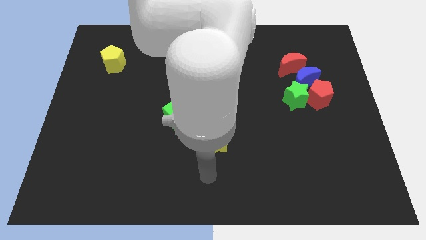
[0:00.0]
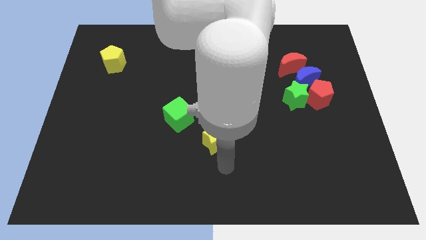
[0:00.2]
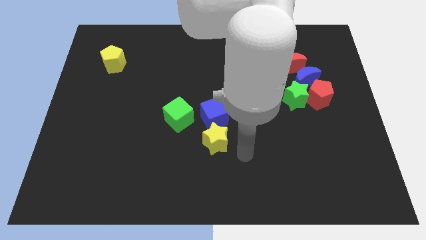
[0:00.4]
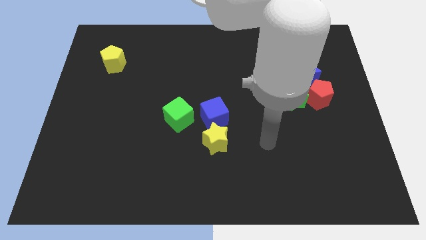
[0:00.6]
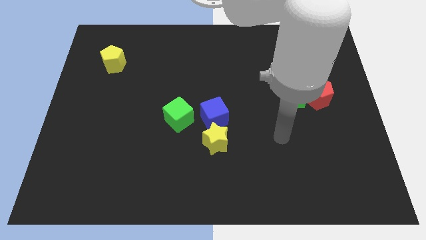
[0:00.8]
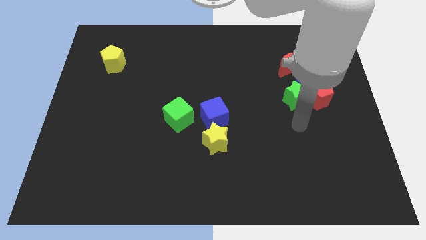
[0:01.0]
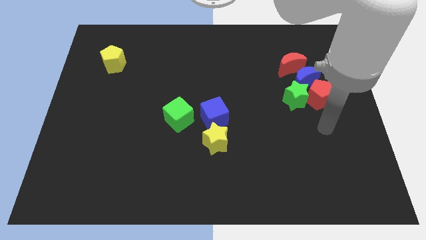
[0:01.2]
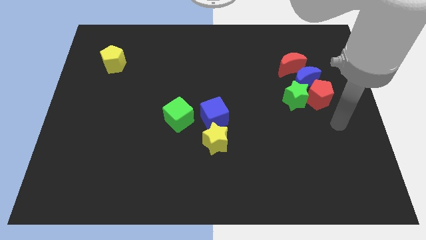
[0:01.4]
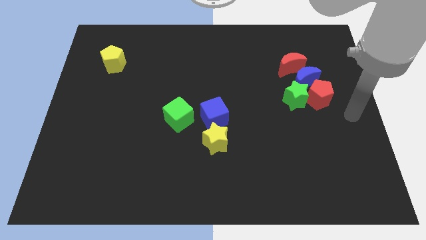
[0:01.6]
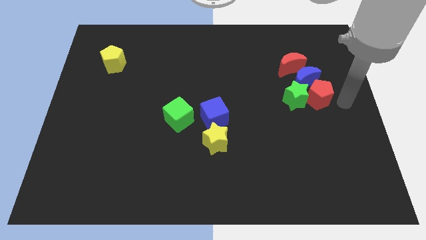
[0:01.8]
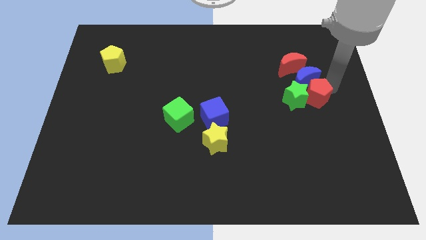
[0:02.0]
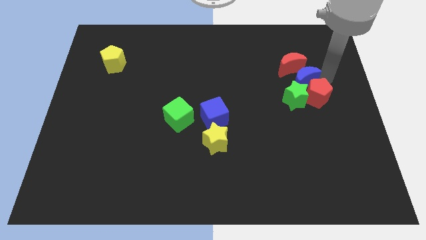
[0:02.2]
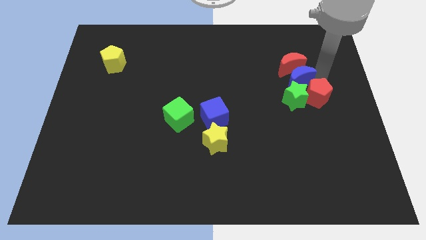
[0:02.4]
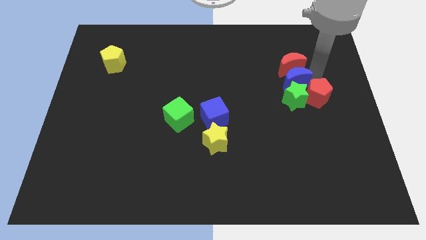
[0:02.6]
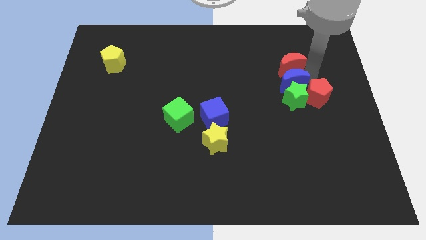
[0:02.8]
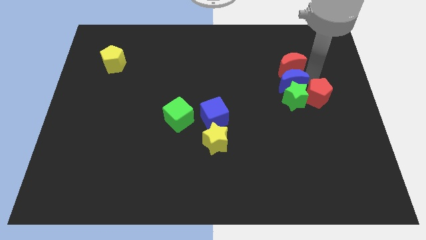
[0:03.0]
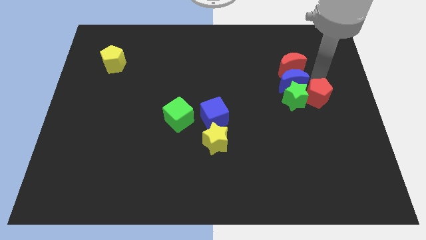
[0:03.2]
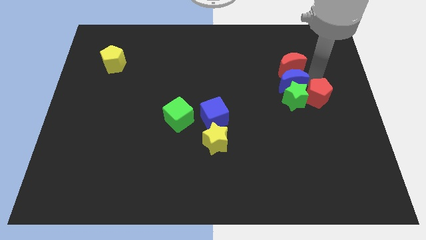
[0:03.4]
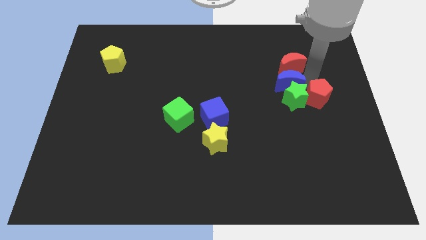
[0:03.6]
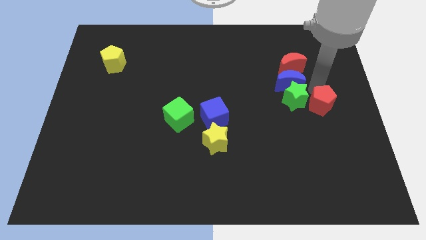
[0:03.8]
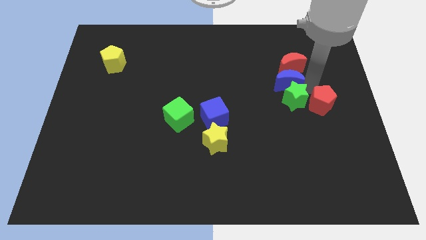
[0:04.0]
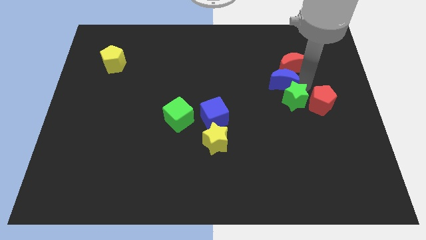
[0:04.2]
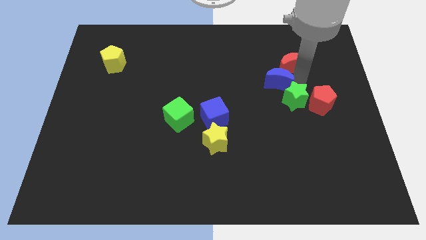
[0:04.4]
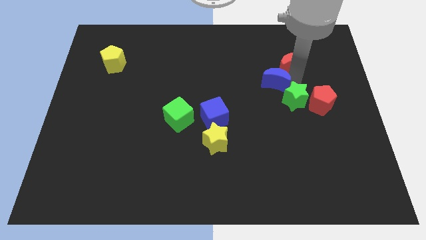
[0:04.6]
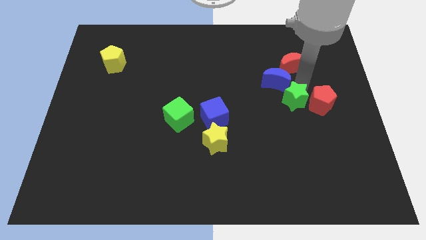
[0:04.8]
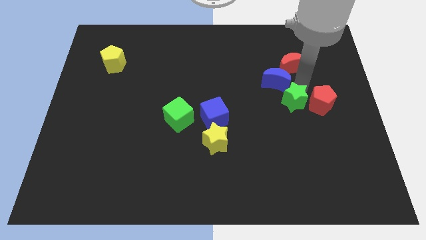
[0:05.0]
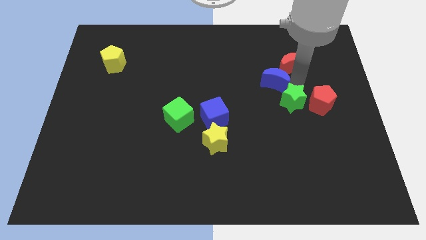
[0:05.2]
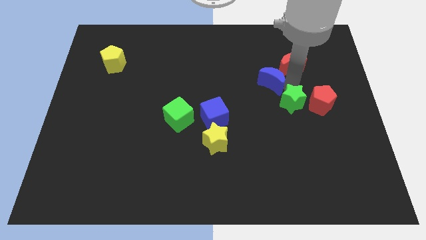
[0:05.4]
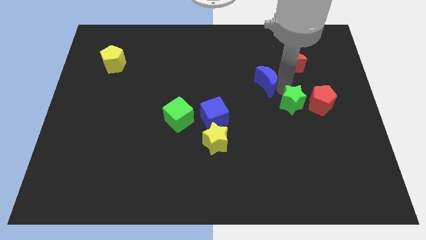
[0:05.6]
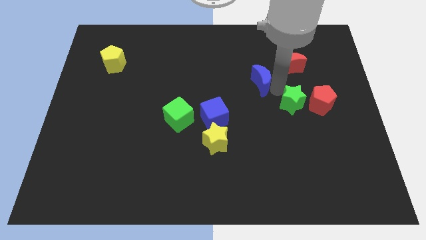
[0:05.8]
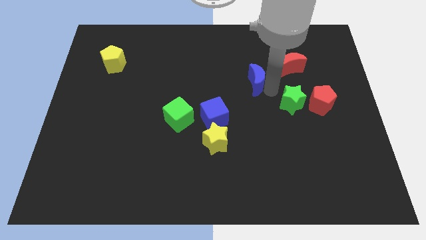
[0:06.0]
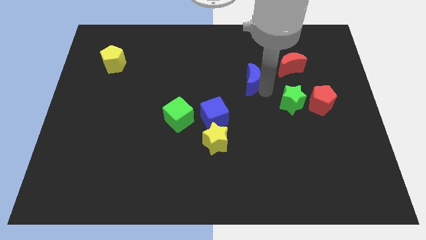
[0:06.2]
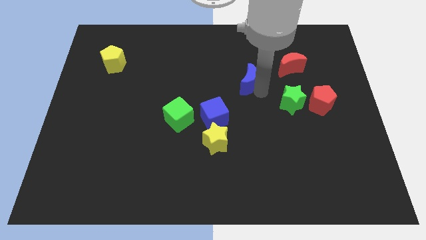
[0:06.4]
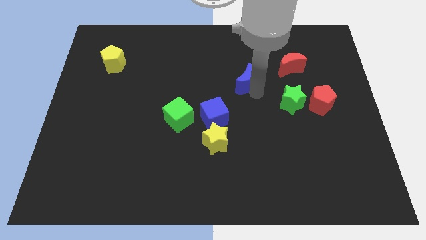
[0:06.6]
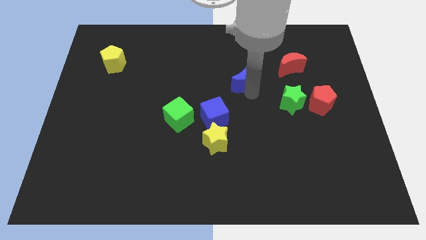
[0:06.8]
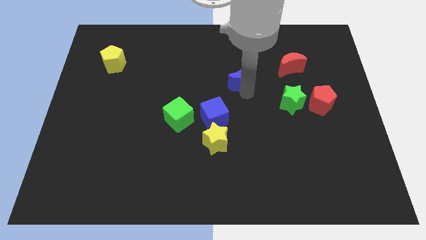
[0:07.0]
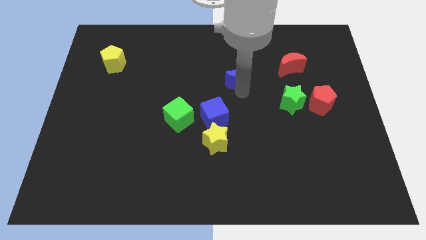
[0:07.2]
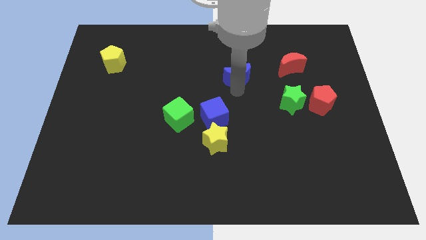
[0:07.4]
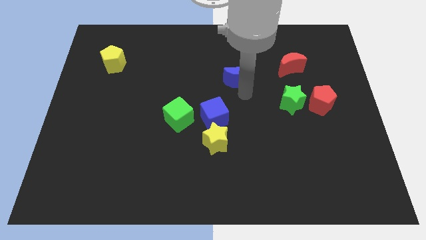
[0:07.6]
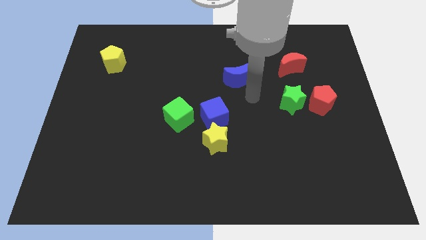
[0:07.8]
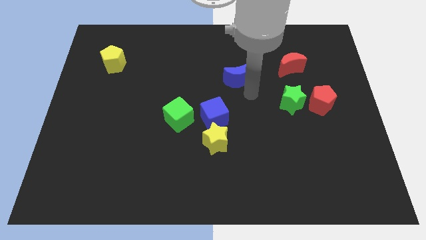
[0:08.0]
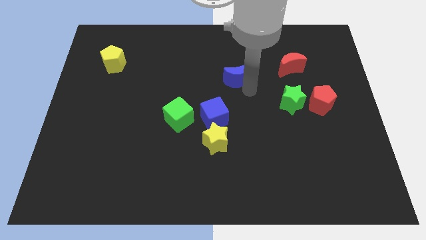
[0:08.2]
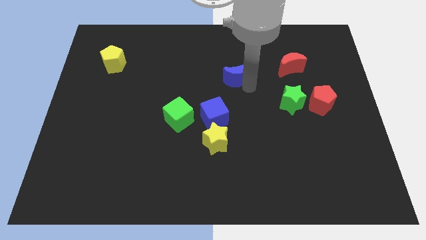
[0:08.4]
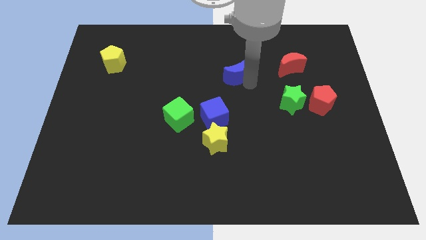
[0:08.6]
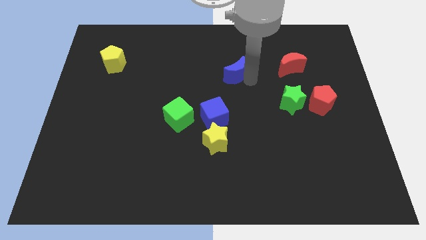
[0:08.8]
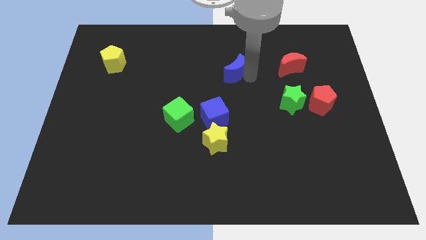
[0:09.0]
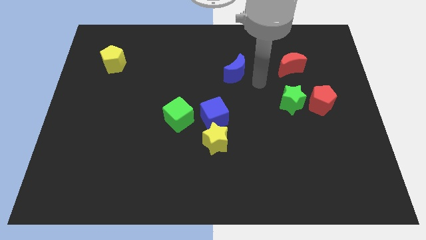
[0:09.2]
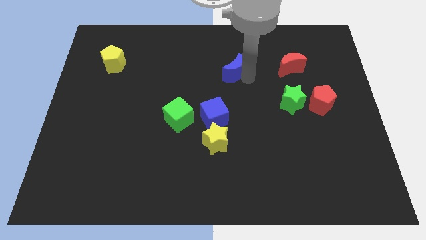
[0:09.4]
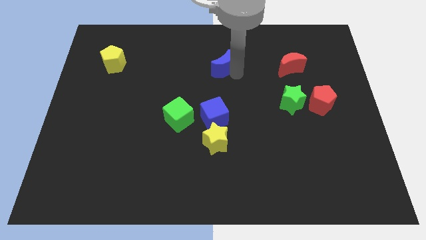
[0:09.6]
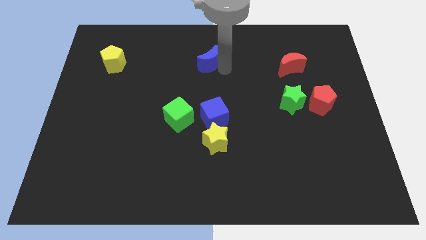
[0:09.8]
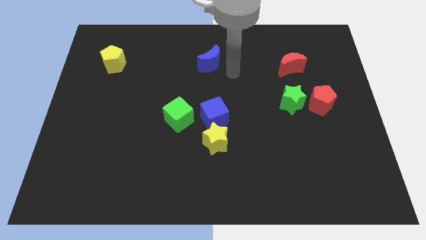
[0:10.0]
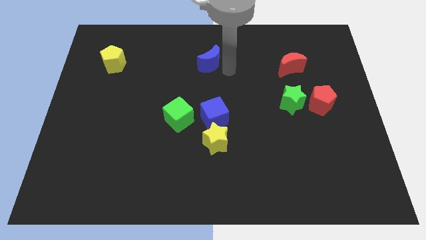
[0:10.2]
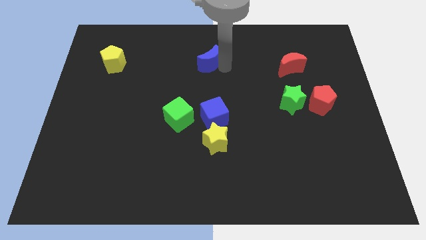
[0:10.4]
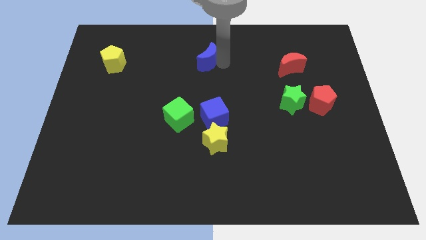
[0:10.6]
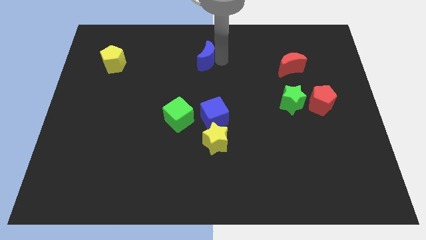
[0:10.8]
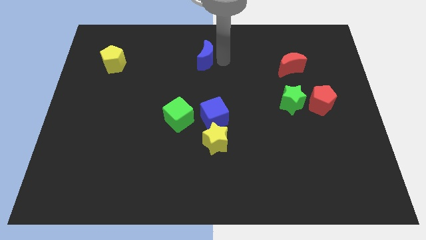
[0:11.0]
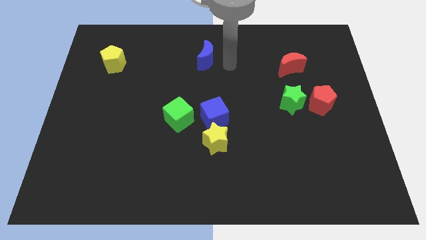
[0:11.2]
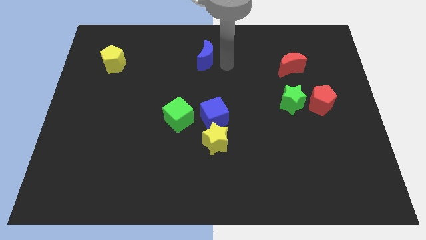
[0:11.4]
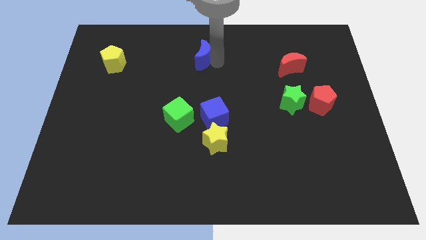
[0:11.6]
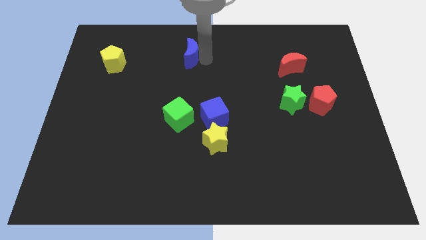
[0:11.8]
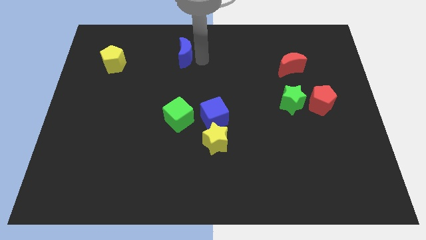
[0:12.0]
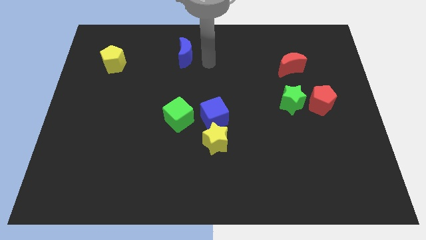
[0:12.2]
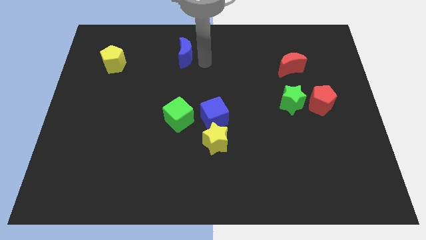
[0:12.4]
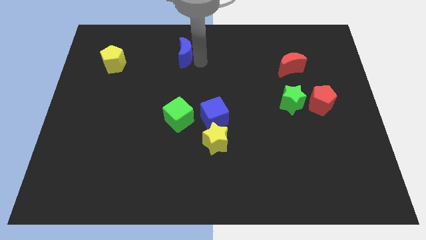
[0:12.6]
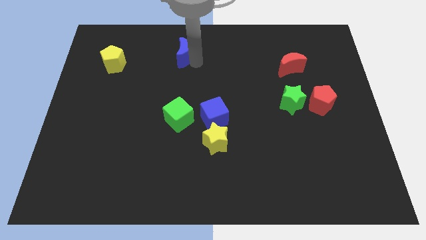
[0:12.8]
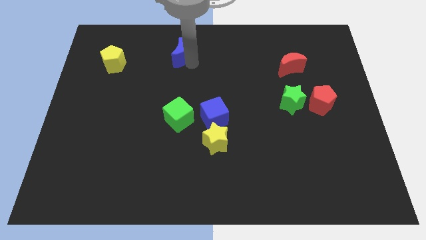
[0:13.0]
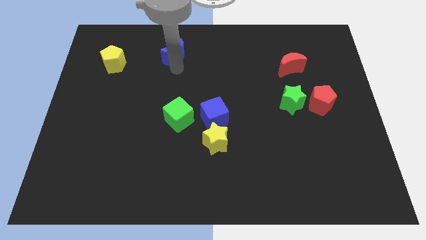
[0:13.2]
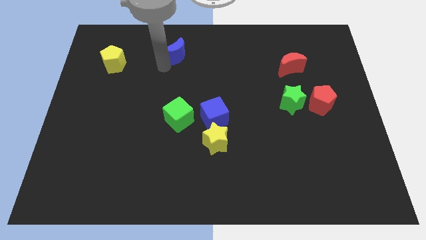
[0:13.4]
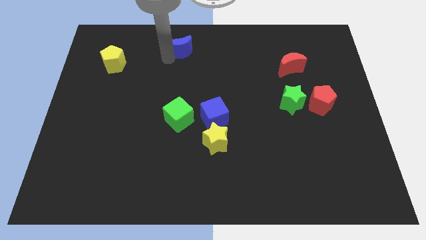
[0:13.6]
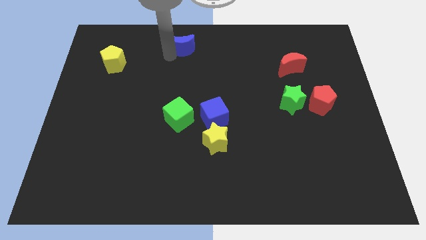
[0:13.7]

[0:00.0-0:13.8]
put the blue moon to the towards your base
